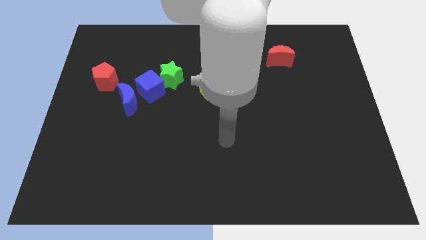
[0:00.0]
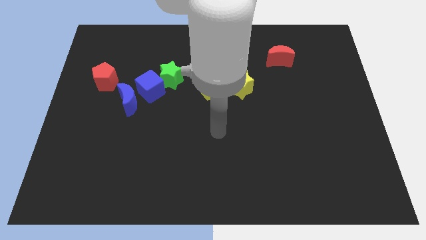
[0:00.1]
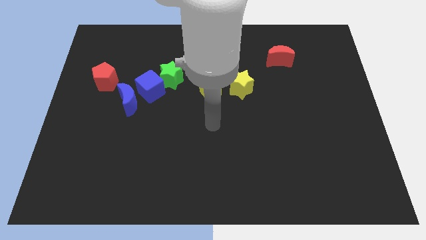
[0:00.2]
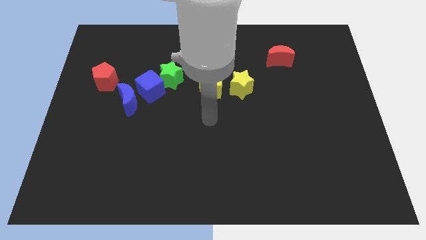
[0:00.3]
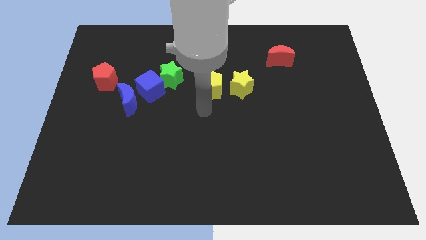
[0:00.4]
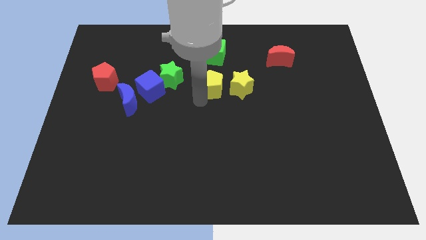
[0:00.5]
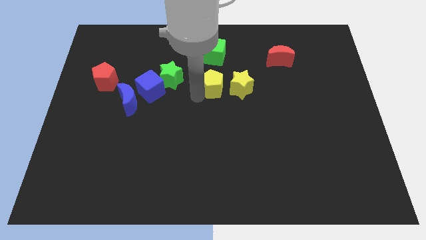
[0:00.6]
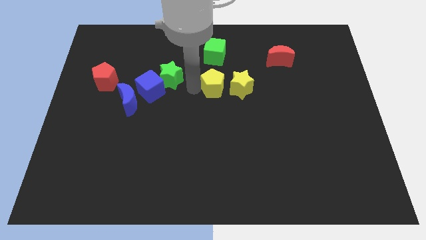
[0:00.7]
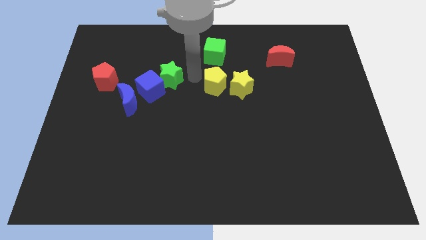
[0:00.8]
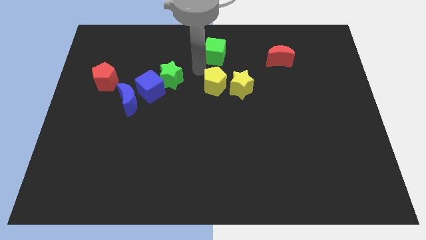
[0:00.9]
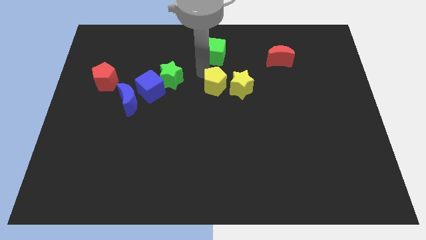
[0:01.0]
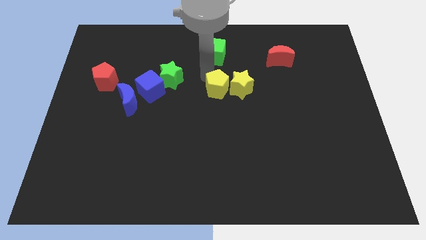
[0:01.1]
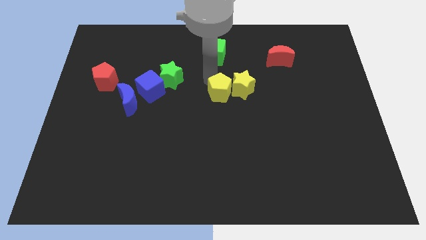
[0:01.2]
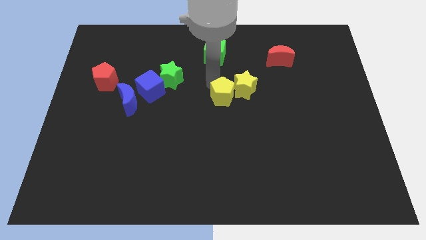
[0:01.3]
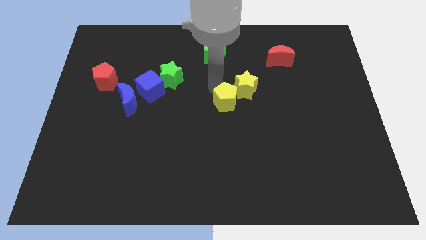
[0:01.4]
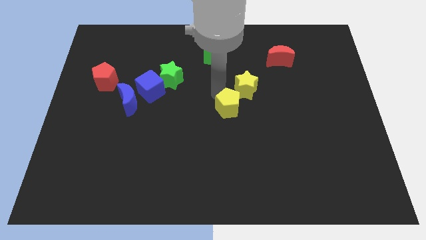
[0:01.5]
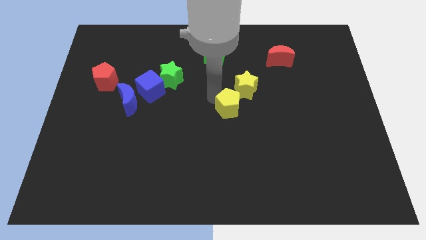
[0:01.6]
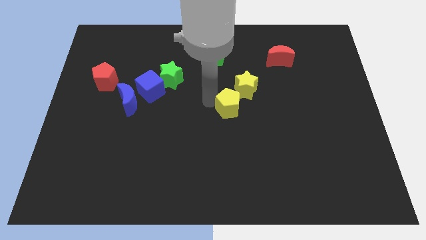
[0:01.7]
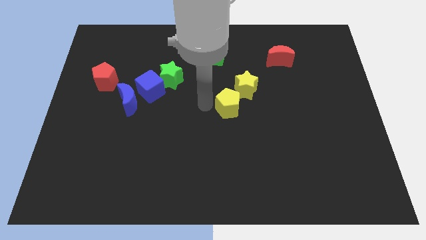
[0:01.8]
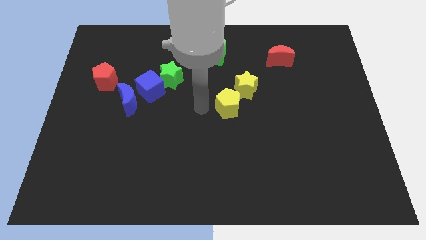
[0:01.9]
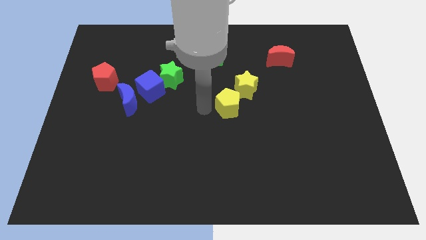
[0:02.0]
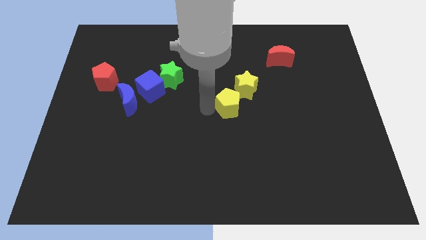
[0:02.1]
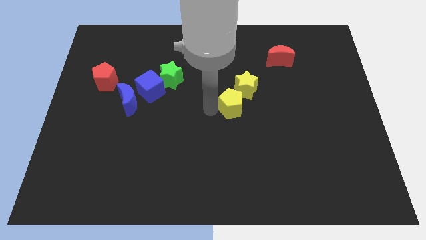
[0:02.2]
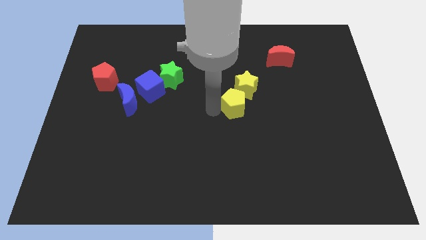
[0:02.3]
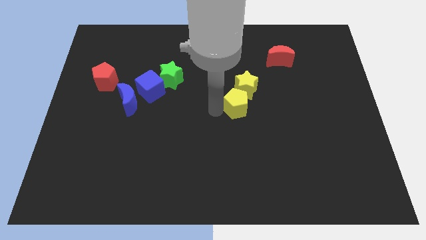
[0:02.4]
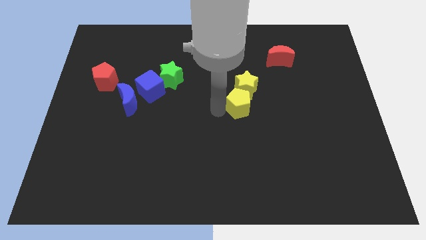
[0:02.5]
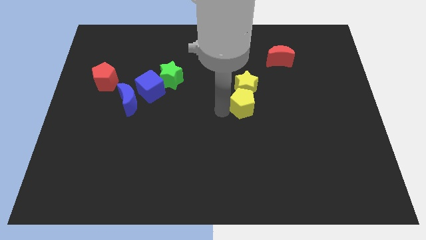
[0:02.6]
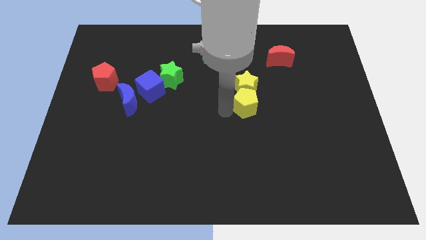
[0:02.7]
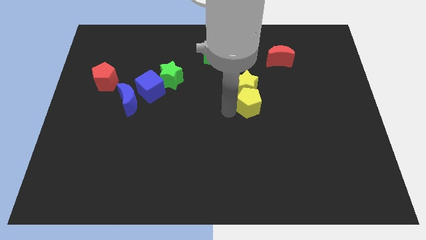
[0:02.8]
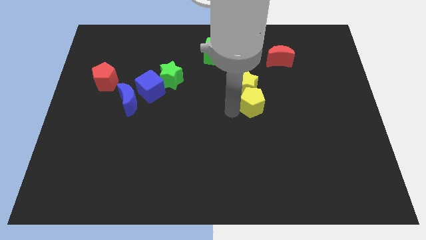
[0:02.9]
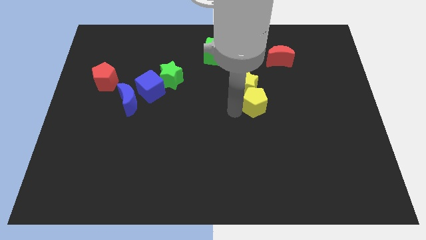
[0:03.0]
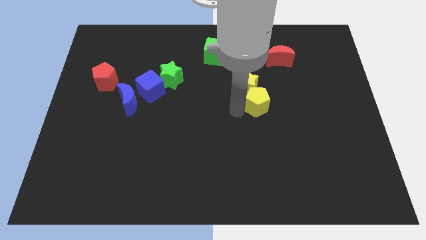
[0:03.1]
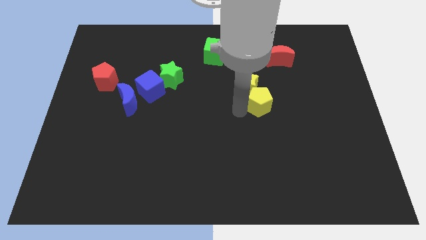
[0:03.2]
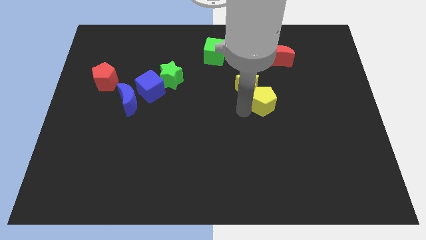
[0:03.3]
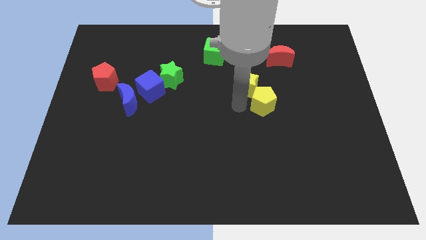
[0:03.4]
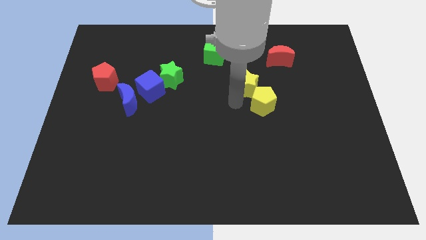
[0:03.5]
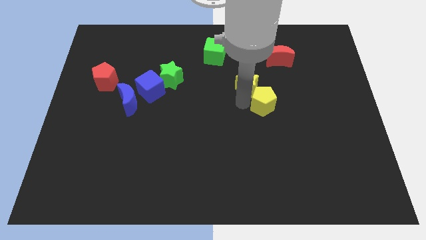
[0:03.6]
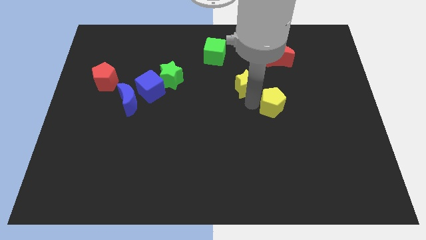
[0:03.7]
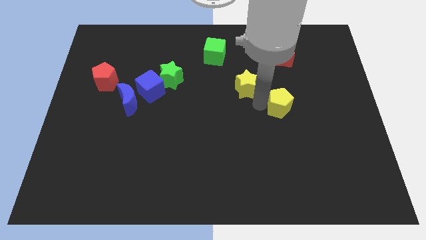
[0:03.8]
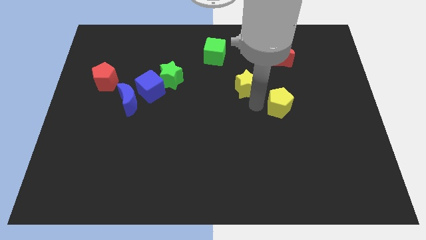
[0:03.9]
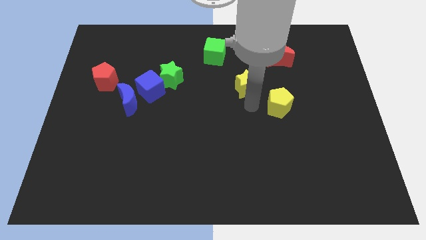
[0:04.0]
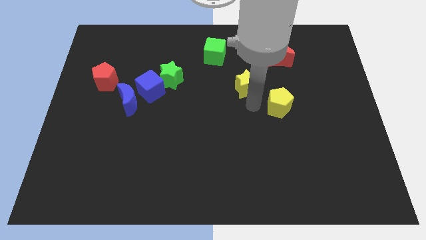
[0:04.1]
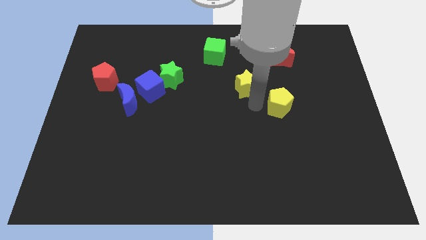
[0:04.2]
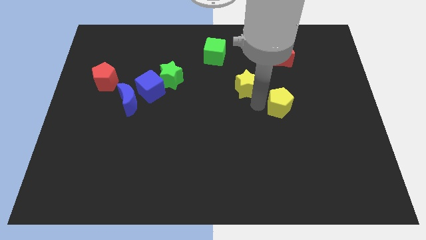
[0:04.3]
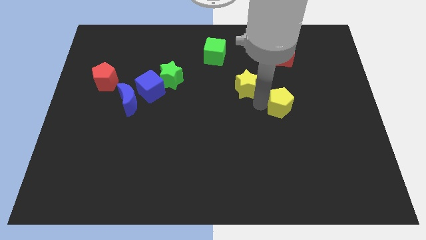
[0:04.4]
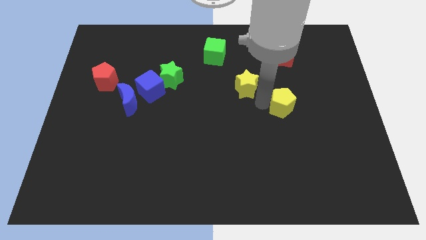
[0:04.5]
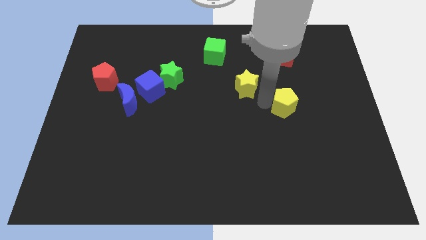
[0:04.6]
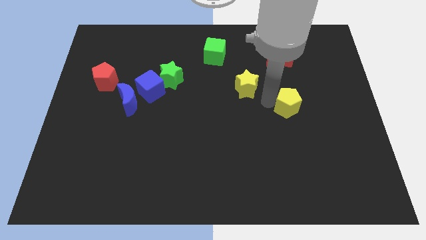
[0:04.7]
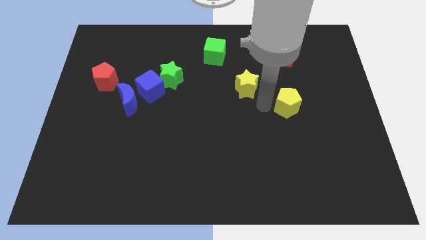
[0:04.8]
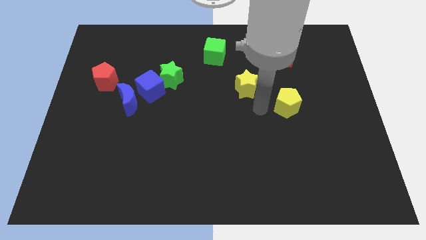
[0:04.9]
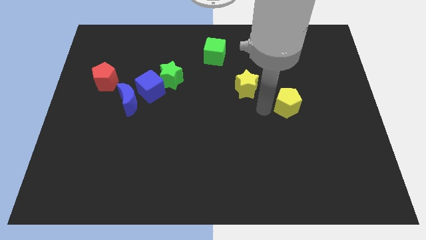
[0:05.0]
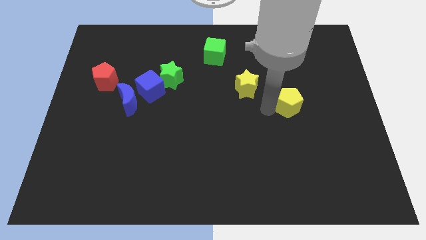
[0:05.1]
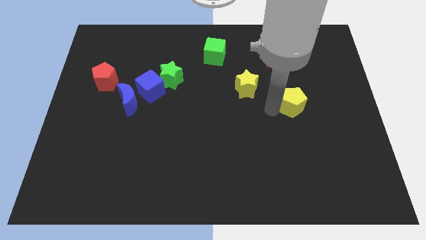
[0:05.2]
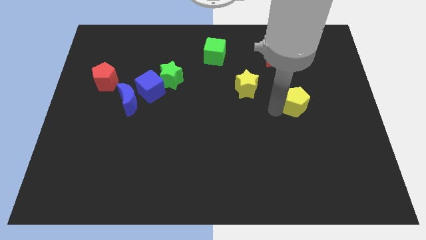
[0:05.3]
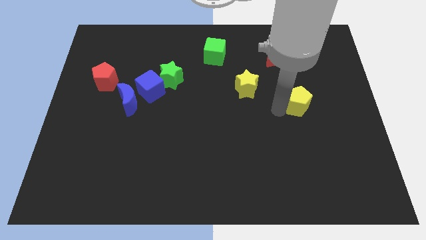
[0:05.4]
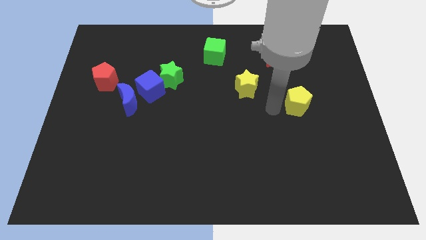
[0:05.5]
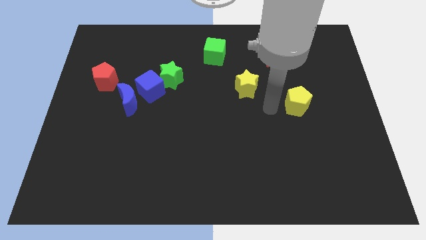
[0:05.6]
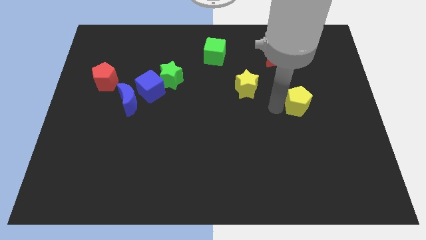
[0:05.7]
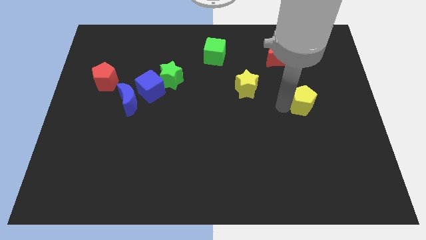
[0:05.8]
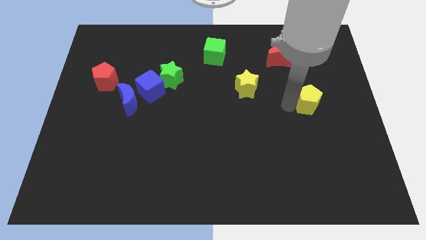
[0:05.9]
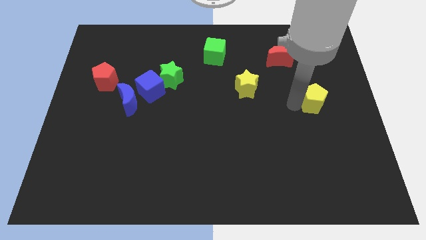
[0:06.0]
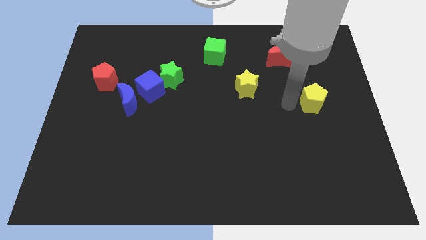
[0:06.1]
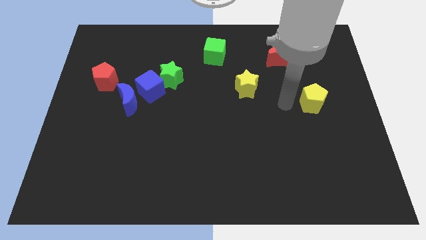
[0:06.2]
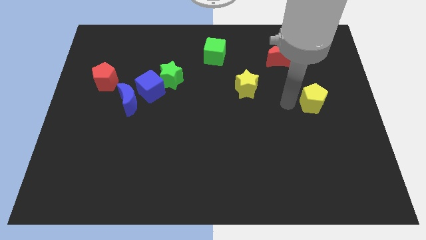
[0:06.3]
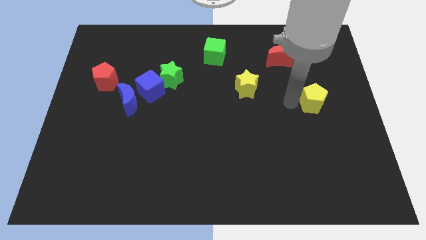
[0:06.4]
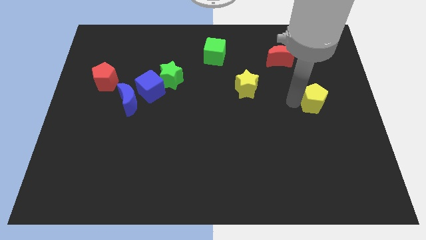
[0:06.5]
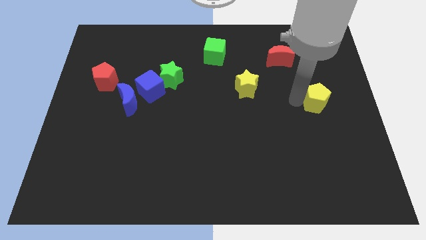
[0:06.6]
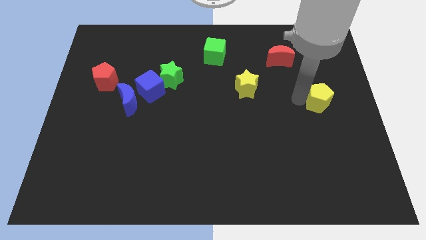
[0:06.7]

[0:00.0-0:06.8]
slide the yellow pentagon to the right side

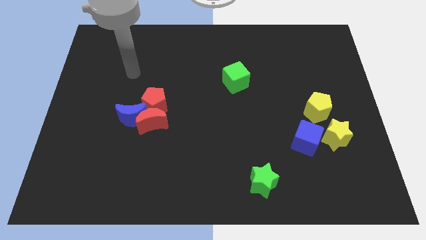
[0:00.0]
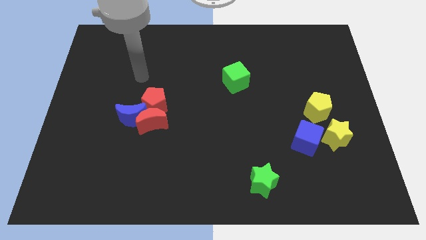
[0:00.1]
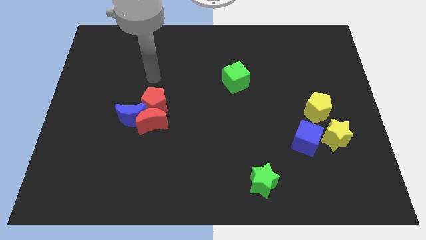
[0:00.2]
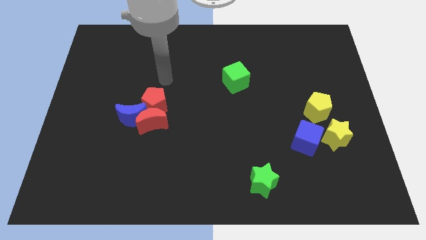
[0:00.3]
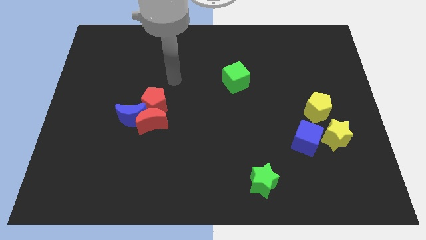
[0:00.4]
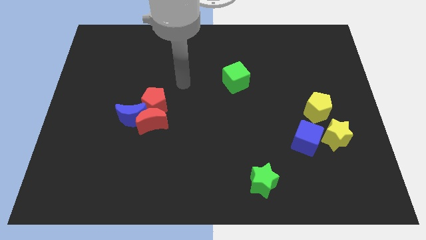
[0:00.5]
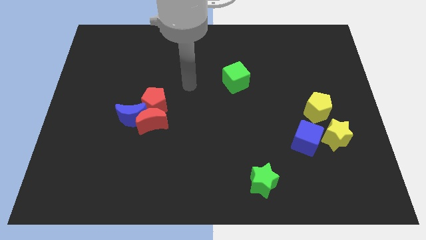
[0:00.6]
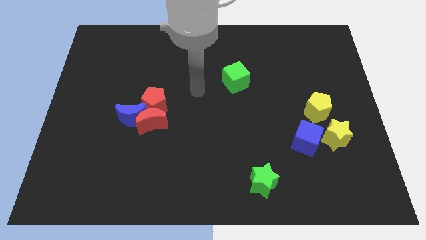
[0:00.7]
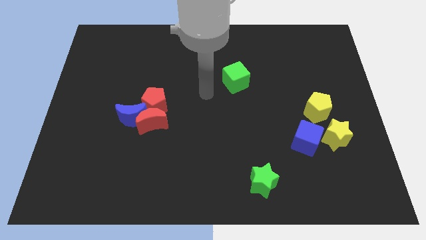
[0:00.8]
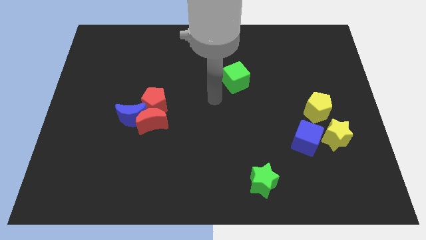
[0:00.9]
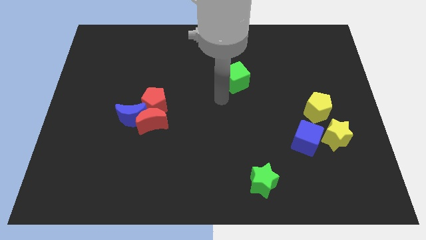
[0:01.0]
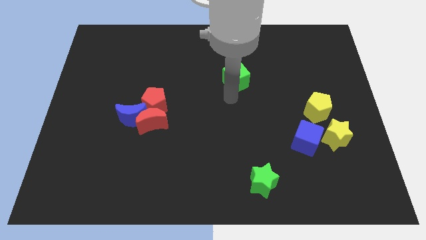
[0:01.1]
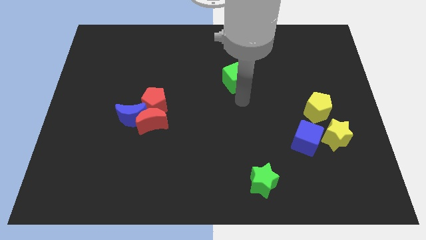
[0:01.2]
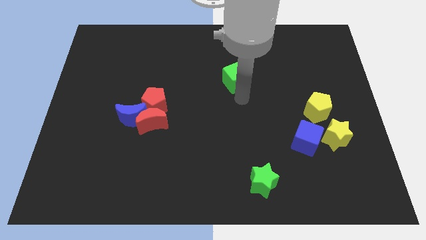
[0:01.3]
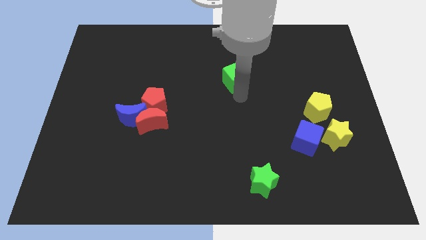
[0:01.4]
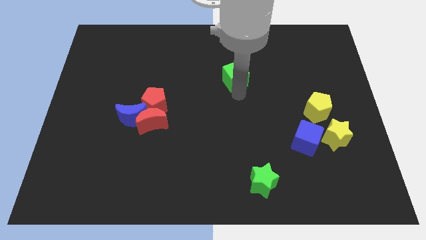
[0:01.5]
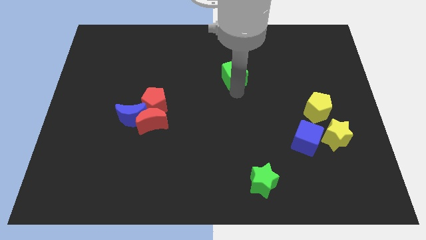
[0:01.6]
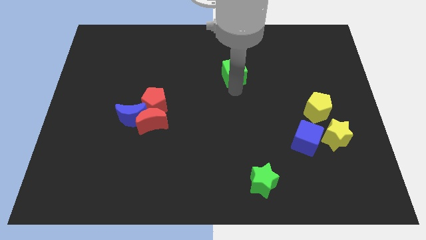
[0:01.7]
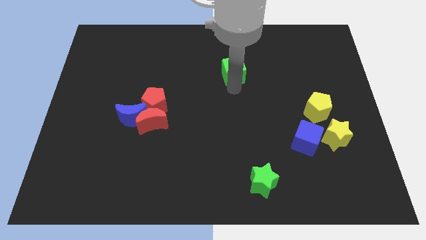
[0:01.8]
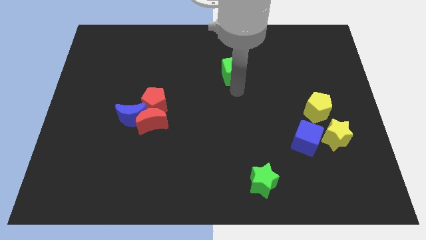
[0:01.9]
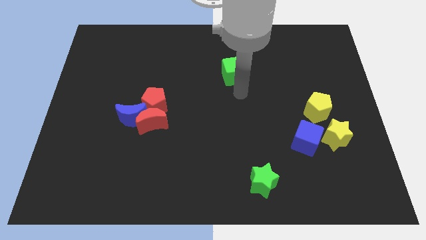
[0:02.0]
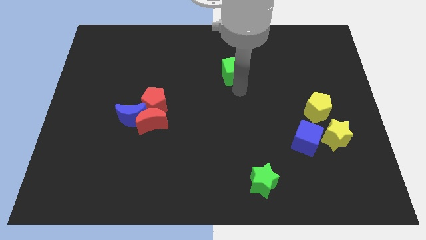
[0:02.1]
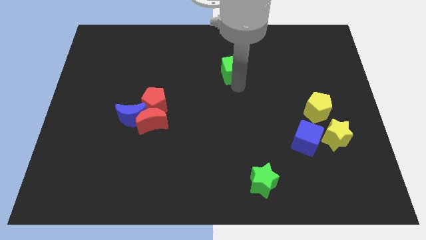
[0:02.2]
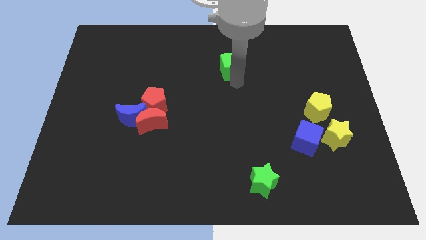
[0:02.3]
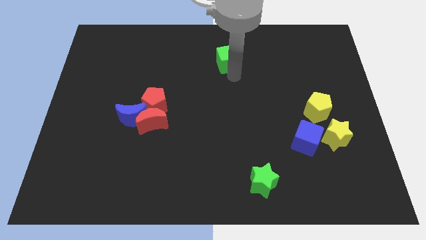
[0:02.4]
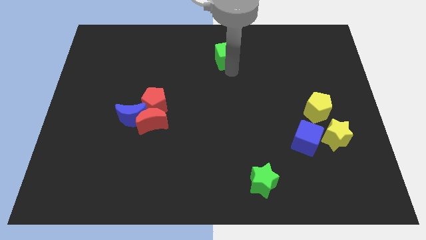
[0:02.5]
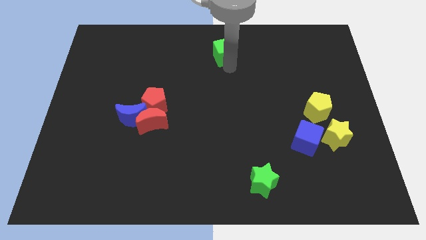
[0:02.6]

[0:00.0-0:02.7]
slide the green cube to the towards your base
